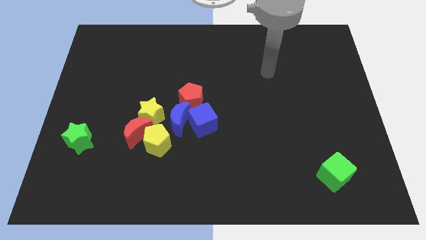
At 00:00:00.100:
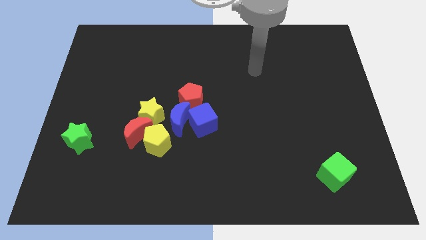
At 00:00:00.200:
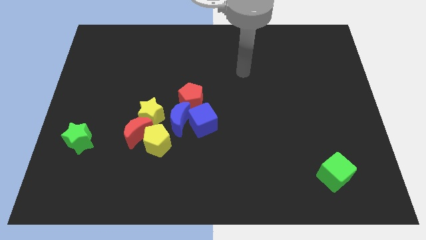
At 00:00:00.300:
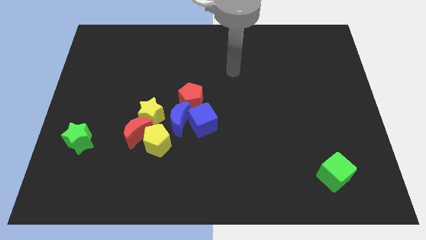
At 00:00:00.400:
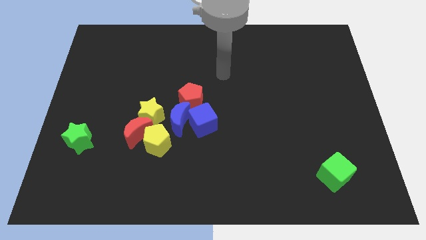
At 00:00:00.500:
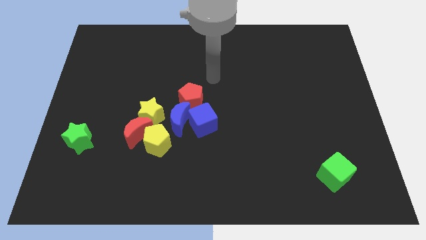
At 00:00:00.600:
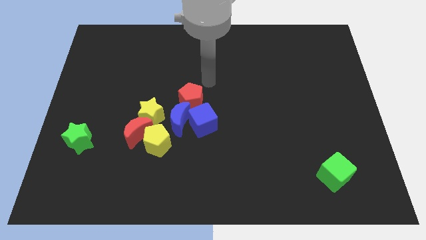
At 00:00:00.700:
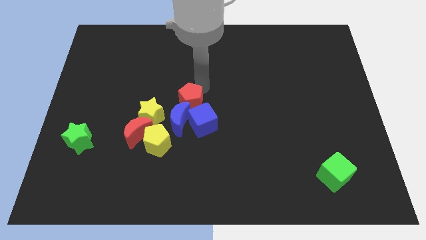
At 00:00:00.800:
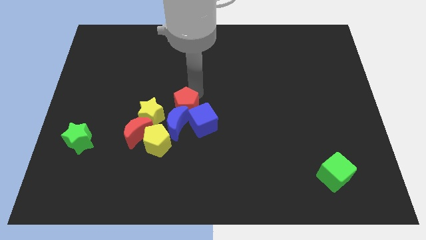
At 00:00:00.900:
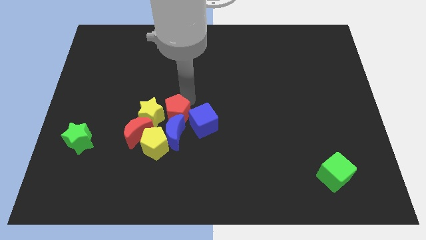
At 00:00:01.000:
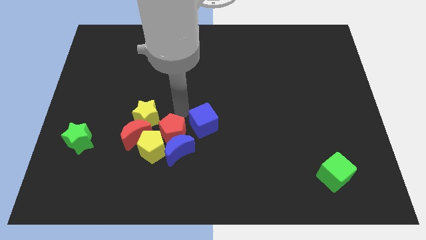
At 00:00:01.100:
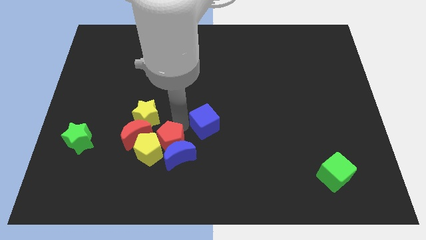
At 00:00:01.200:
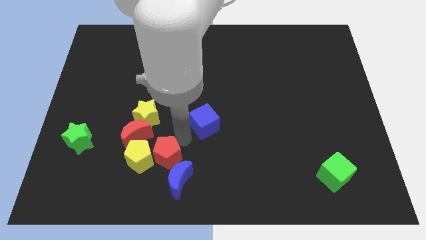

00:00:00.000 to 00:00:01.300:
separate the blue cube from the blue moon and red pentagon

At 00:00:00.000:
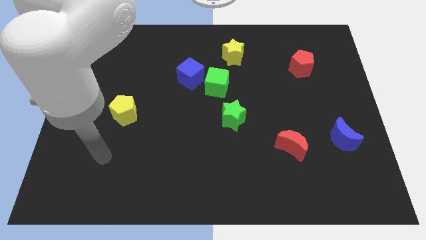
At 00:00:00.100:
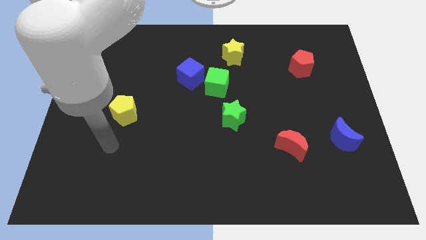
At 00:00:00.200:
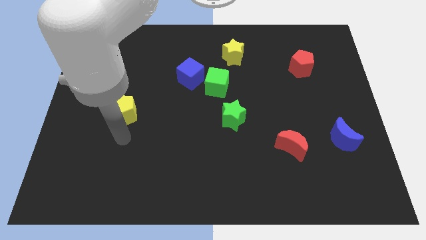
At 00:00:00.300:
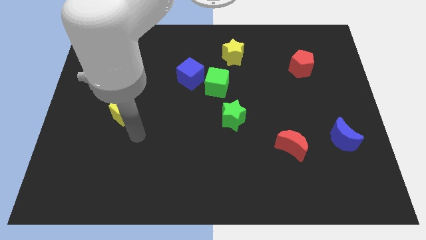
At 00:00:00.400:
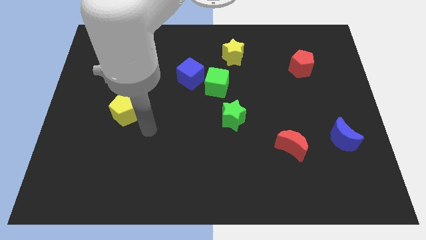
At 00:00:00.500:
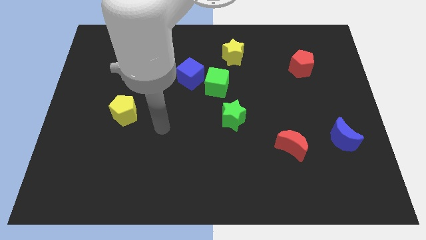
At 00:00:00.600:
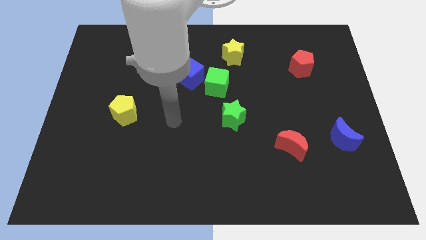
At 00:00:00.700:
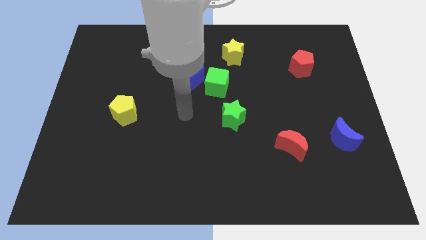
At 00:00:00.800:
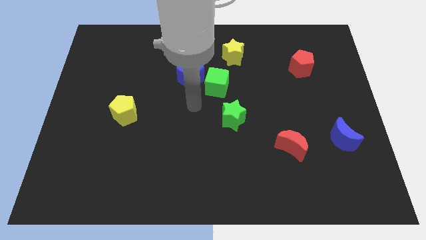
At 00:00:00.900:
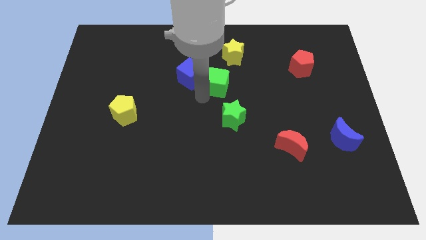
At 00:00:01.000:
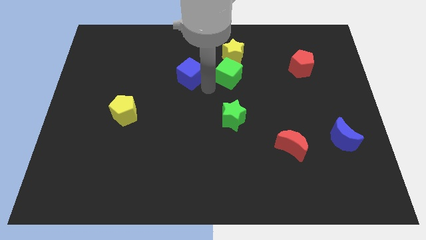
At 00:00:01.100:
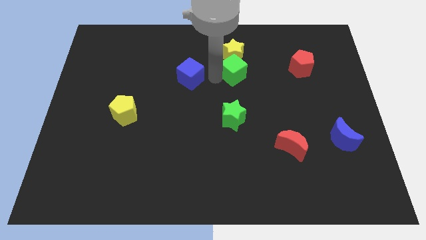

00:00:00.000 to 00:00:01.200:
separate the blue cube from the green cube

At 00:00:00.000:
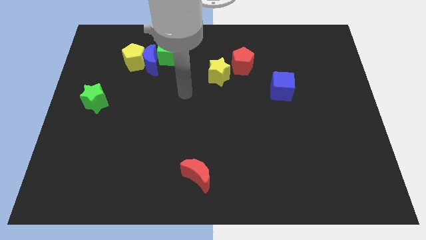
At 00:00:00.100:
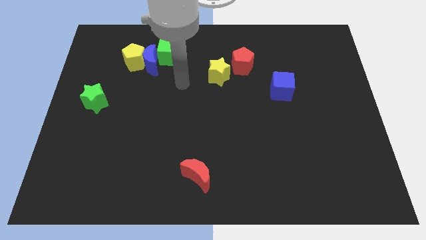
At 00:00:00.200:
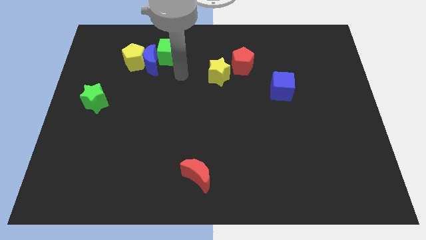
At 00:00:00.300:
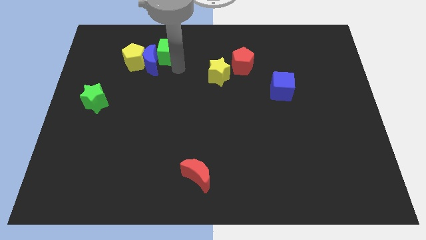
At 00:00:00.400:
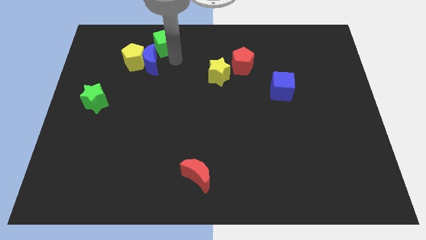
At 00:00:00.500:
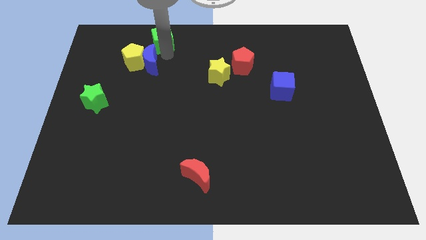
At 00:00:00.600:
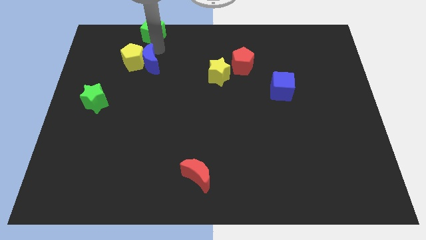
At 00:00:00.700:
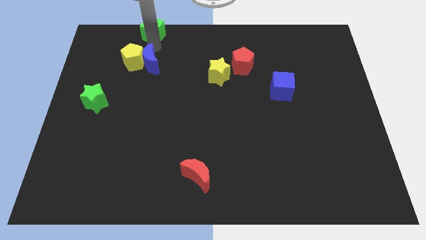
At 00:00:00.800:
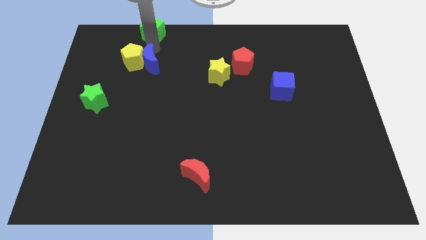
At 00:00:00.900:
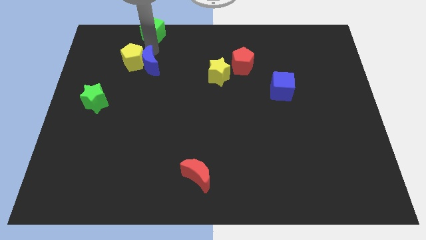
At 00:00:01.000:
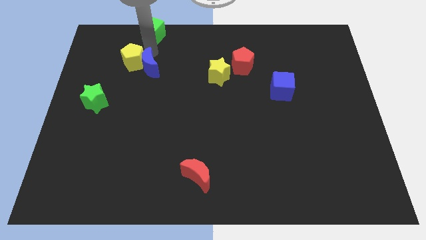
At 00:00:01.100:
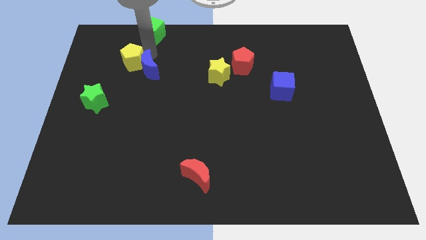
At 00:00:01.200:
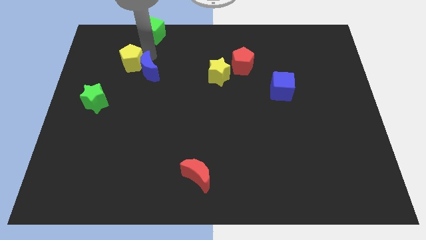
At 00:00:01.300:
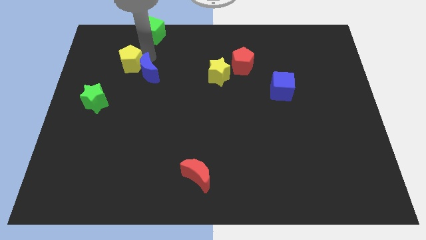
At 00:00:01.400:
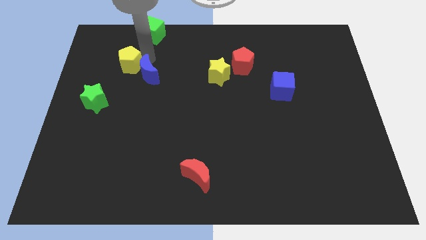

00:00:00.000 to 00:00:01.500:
pull the blue moon apart from the yellow pentagon and green cube

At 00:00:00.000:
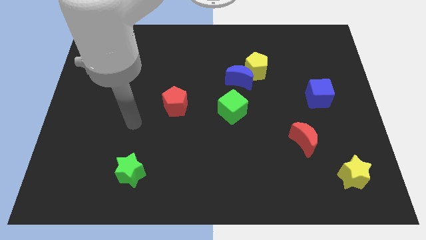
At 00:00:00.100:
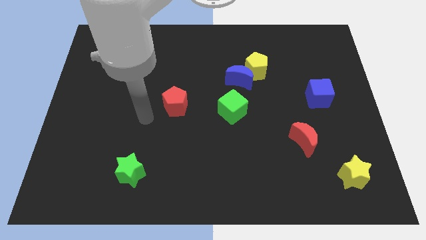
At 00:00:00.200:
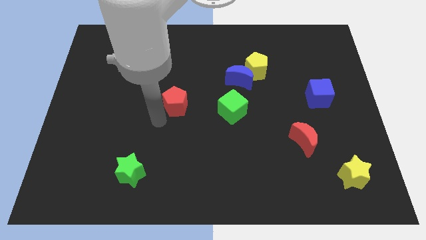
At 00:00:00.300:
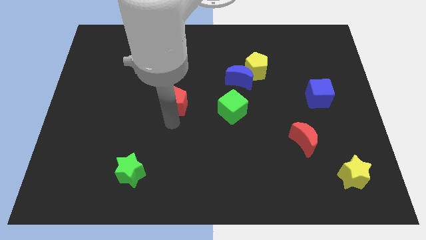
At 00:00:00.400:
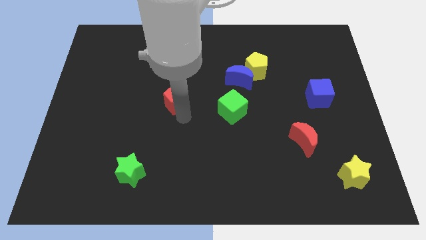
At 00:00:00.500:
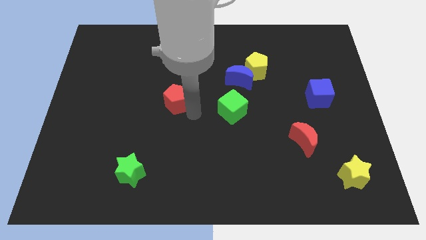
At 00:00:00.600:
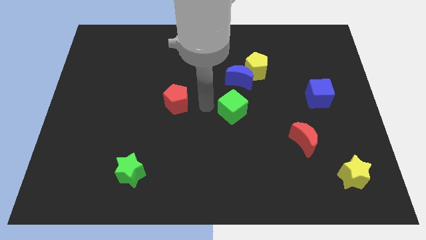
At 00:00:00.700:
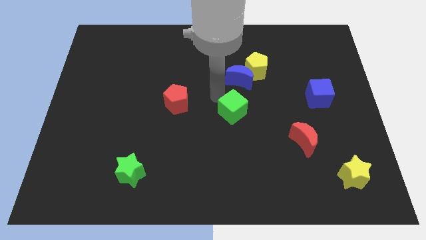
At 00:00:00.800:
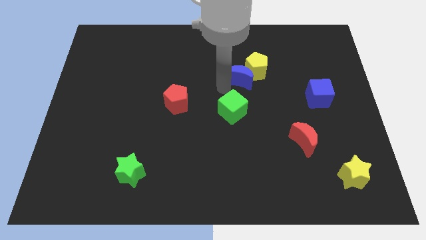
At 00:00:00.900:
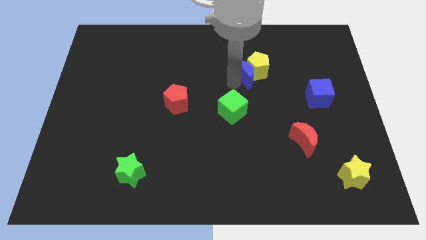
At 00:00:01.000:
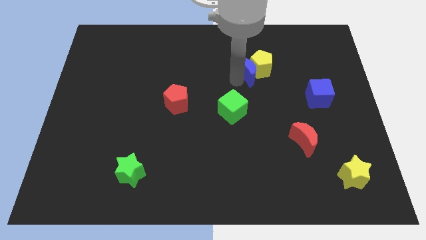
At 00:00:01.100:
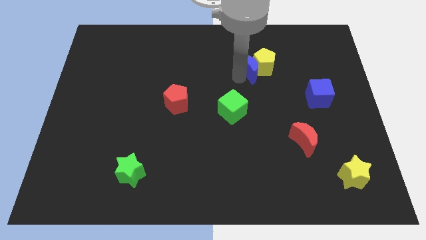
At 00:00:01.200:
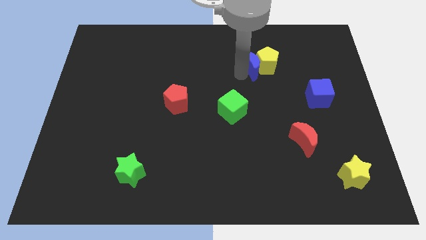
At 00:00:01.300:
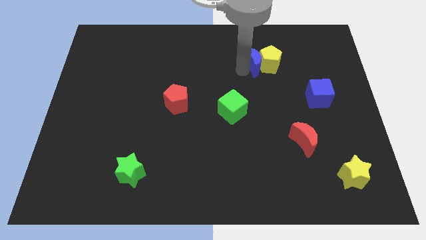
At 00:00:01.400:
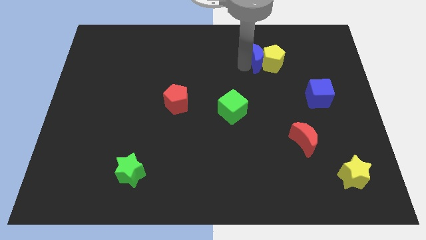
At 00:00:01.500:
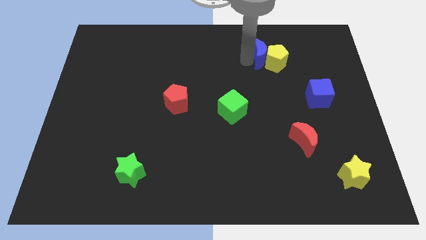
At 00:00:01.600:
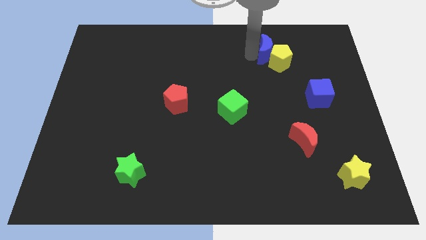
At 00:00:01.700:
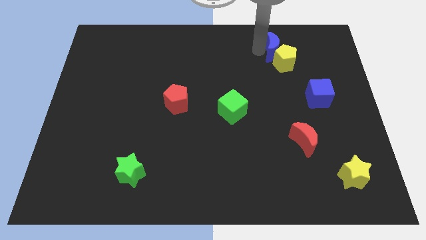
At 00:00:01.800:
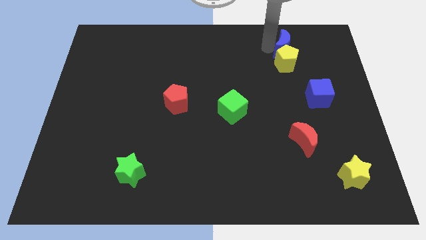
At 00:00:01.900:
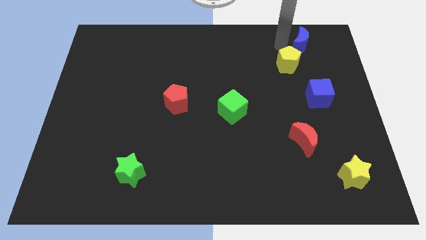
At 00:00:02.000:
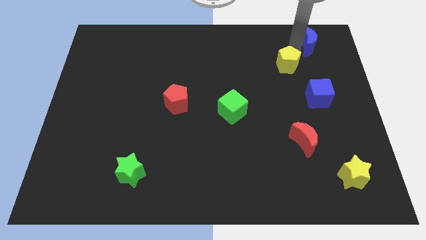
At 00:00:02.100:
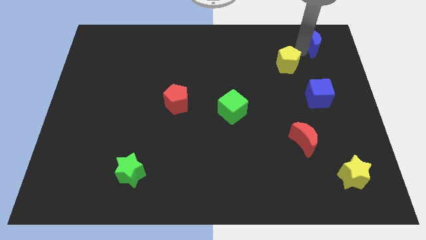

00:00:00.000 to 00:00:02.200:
move the yellow pentagon away from the blue moon

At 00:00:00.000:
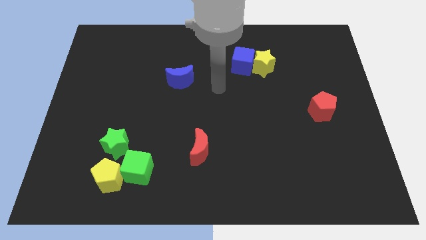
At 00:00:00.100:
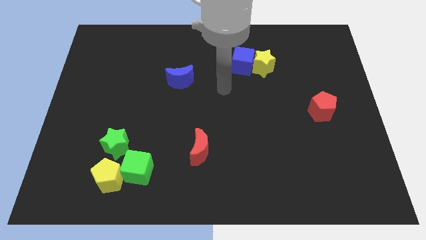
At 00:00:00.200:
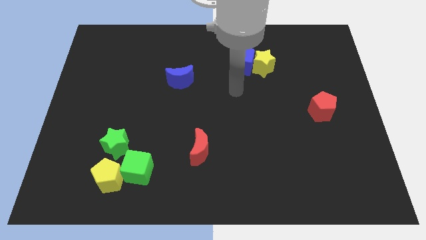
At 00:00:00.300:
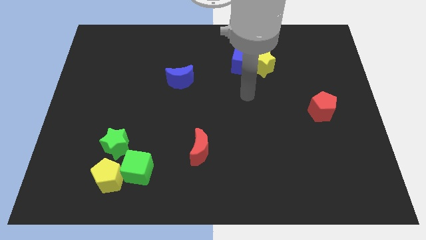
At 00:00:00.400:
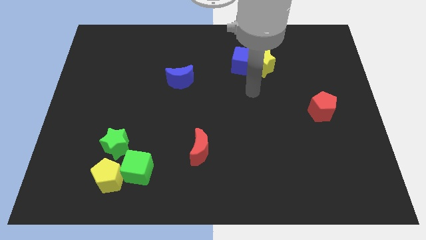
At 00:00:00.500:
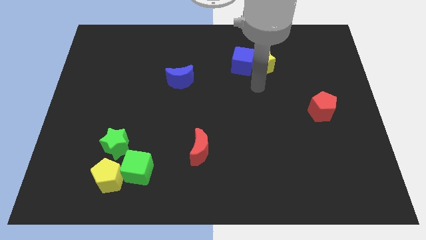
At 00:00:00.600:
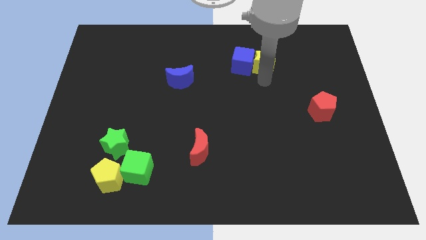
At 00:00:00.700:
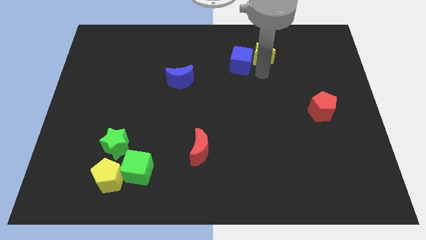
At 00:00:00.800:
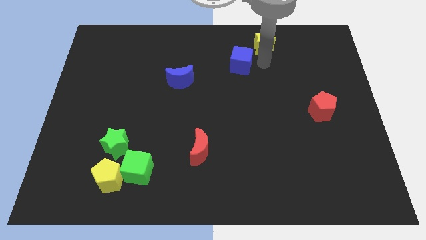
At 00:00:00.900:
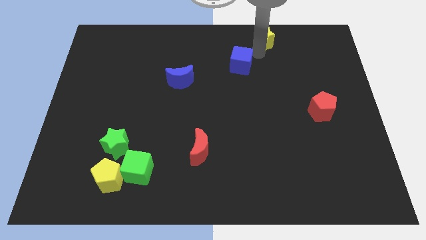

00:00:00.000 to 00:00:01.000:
separate the blue cube from the yellow star

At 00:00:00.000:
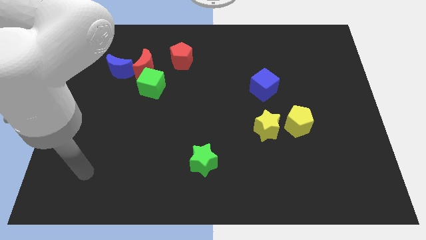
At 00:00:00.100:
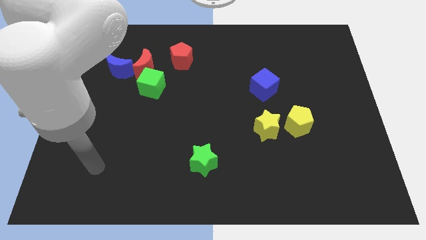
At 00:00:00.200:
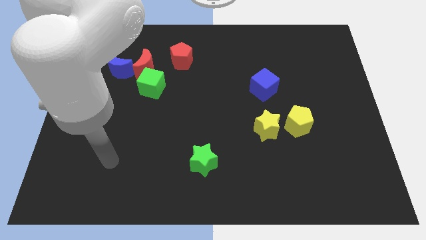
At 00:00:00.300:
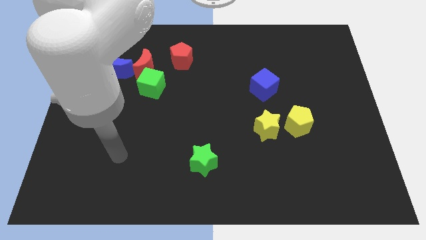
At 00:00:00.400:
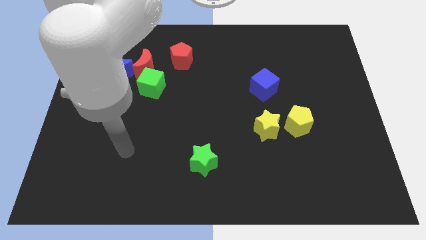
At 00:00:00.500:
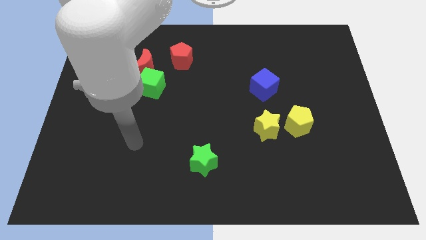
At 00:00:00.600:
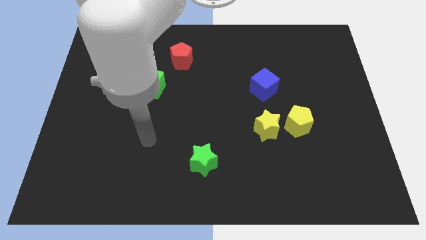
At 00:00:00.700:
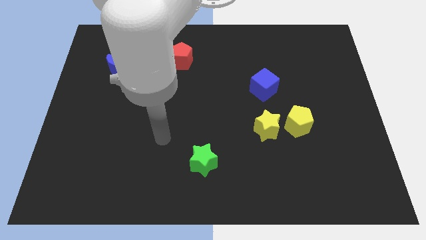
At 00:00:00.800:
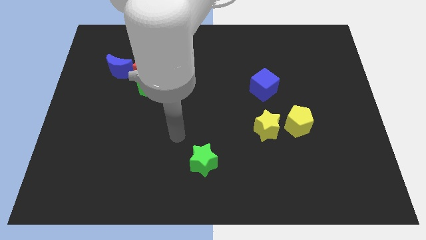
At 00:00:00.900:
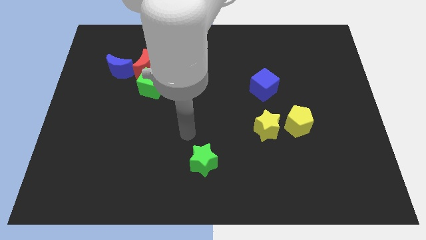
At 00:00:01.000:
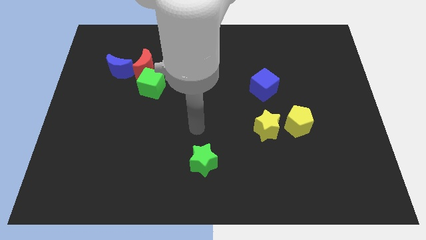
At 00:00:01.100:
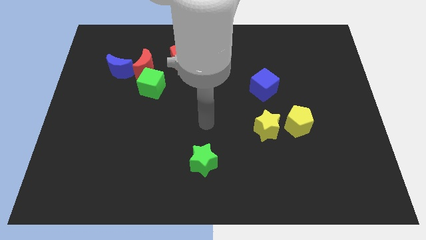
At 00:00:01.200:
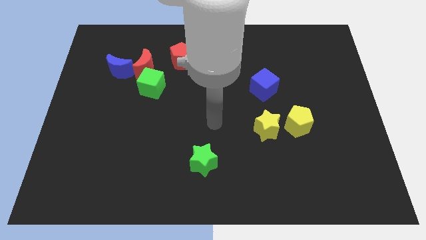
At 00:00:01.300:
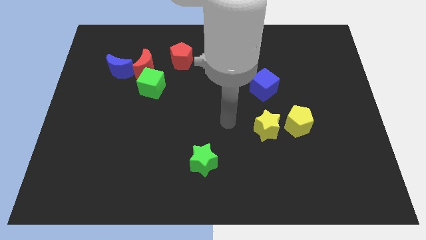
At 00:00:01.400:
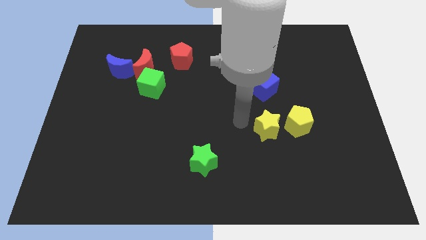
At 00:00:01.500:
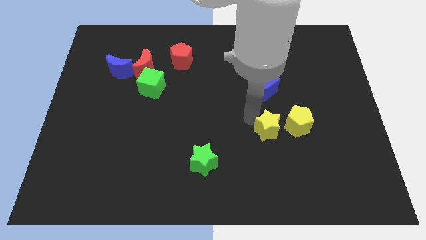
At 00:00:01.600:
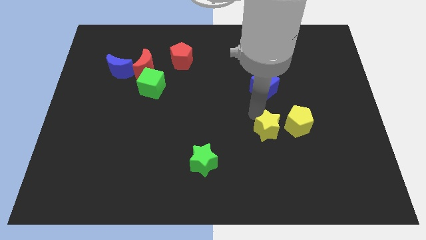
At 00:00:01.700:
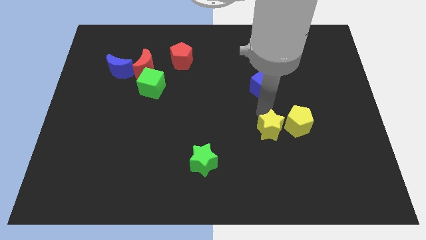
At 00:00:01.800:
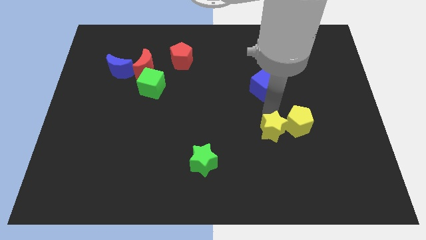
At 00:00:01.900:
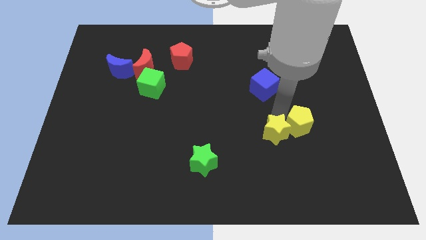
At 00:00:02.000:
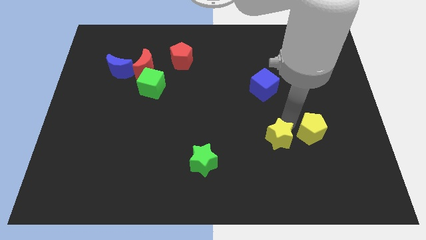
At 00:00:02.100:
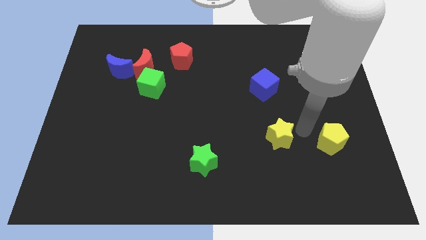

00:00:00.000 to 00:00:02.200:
move the yellow star away from the yellow pentagon
